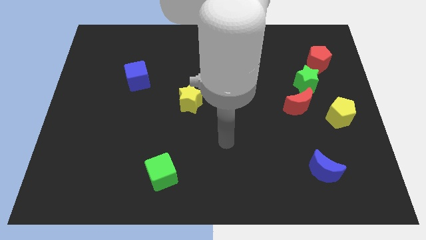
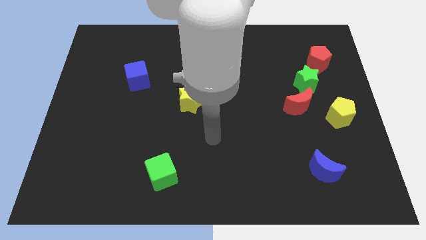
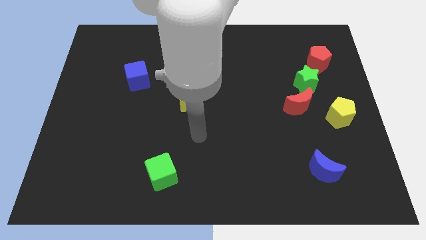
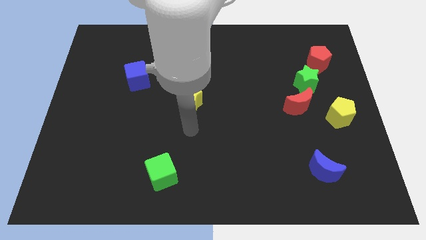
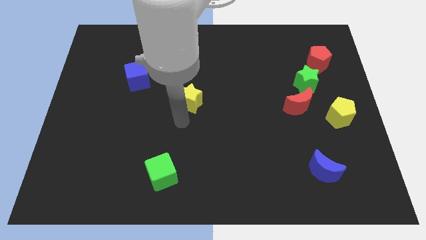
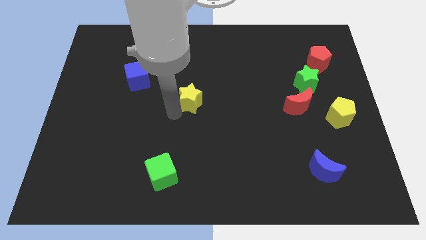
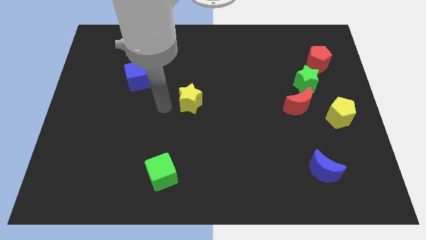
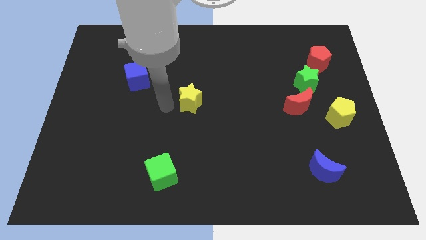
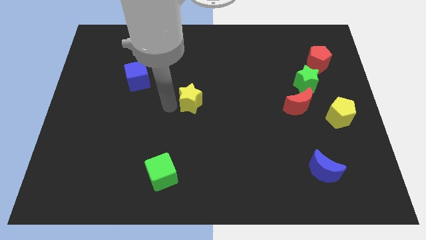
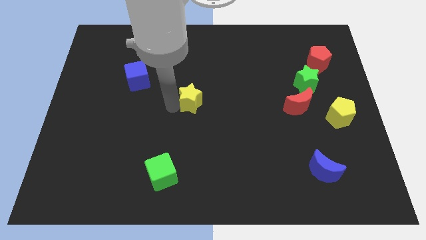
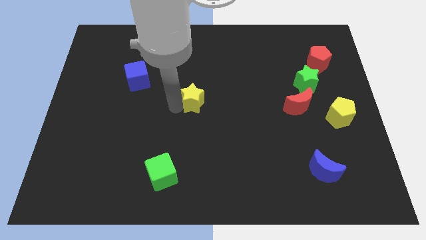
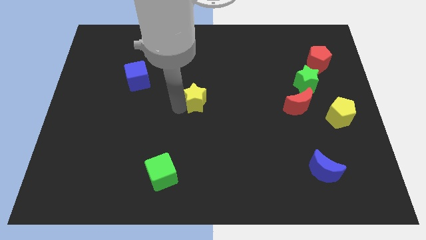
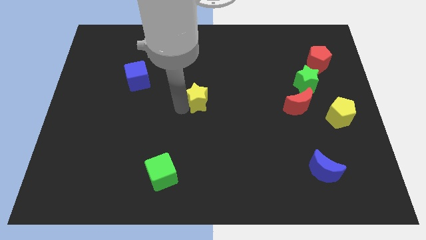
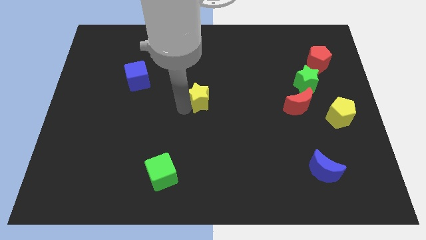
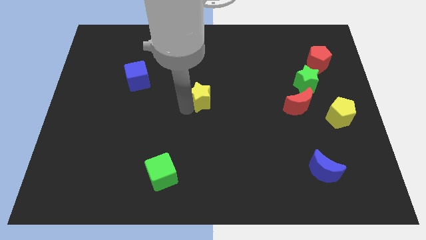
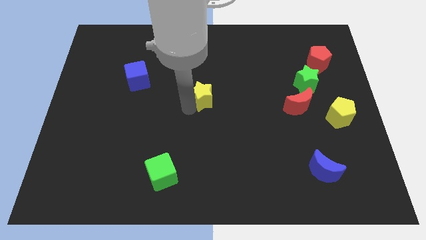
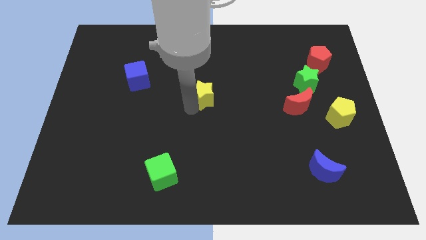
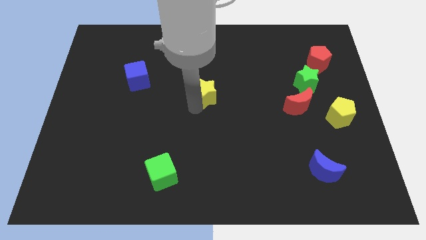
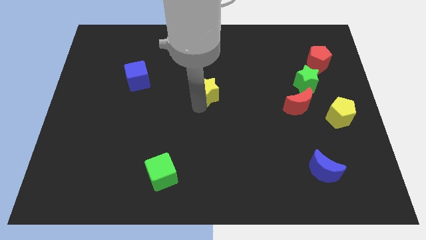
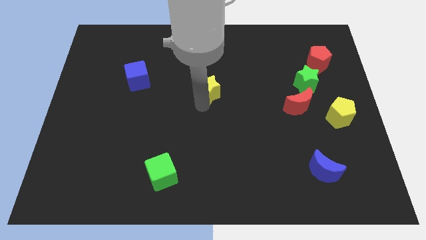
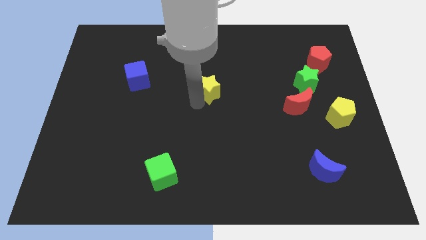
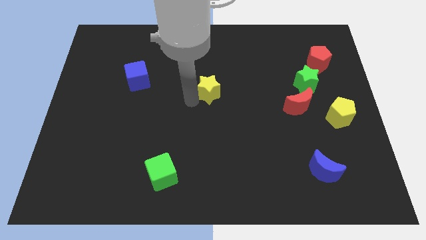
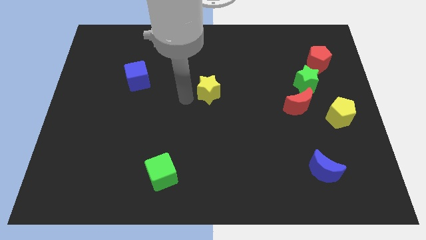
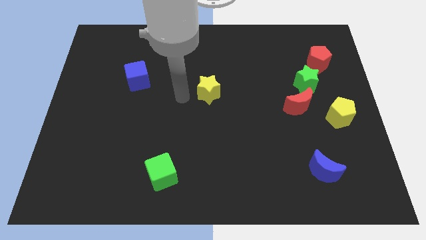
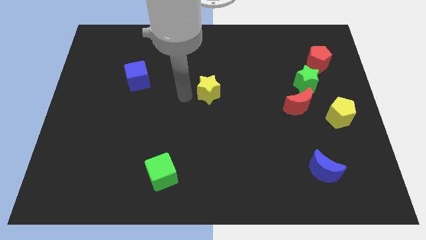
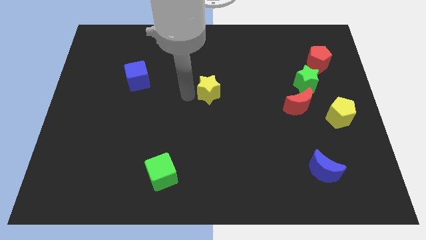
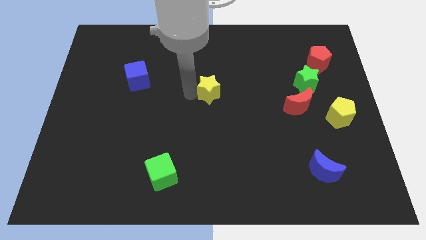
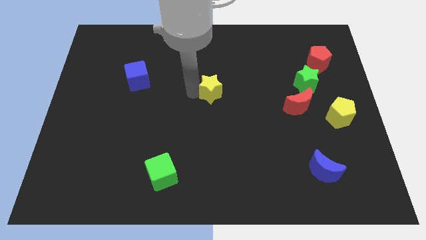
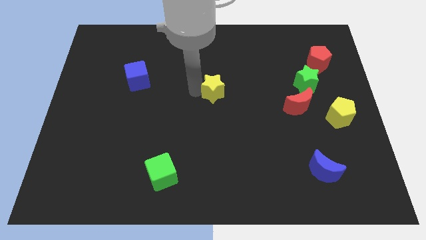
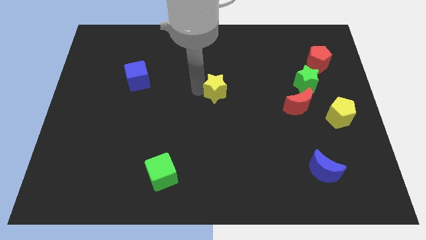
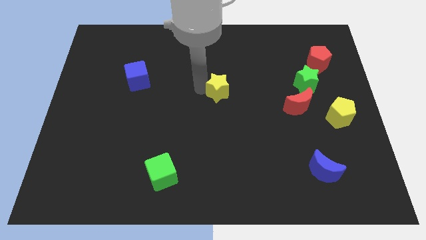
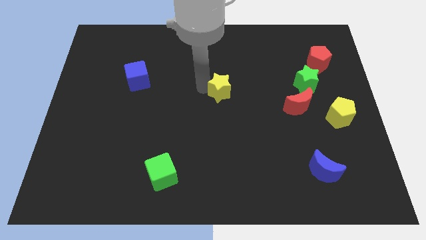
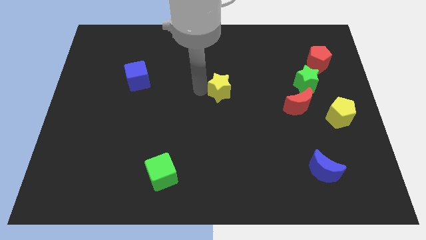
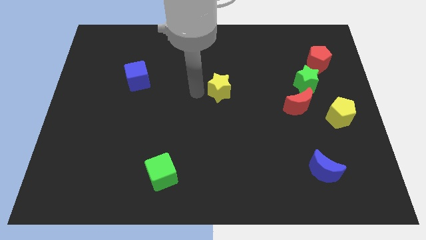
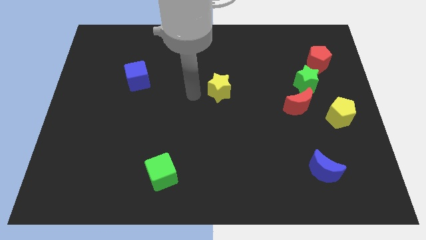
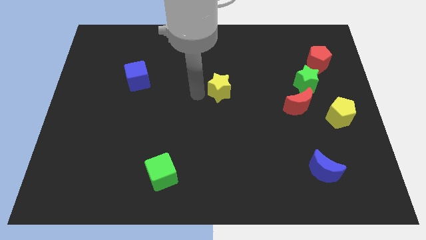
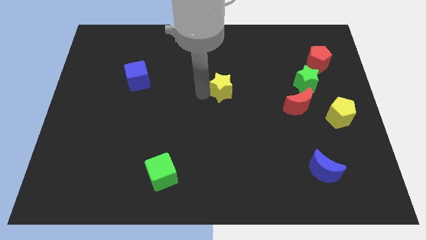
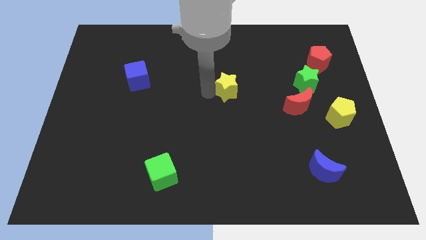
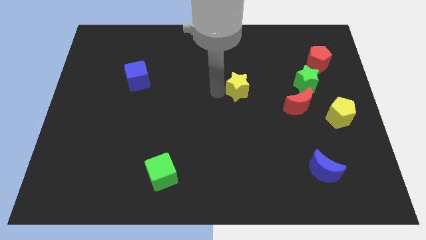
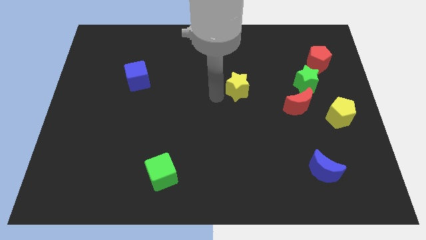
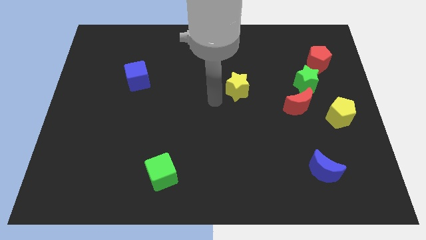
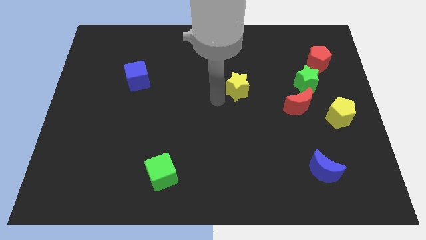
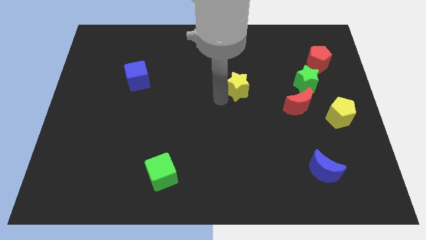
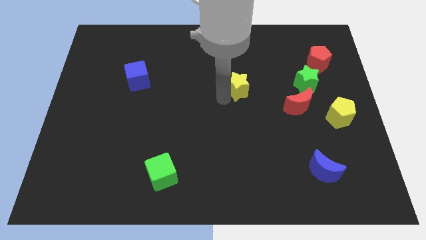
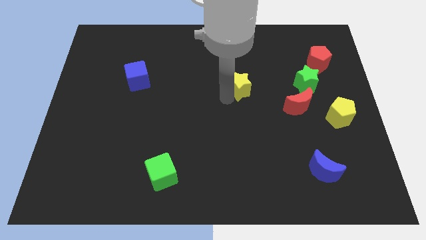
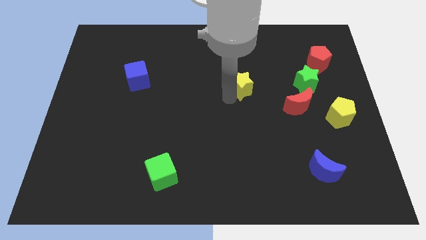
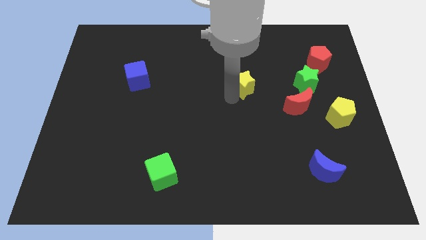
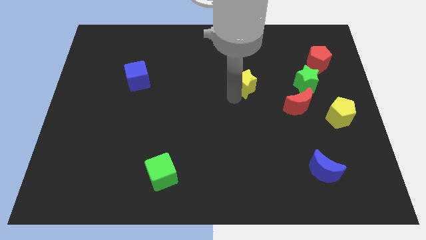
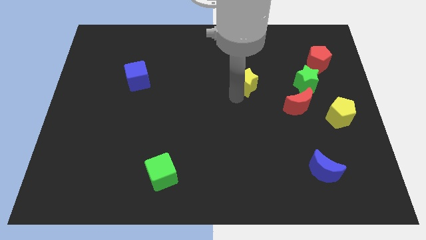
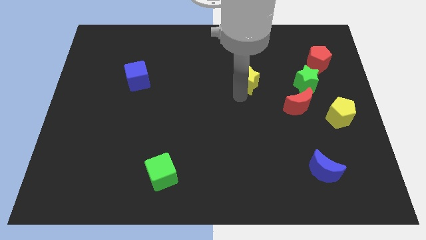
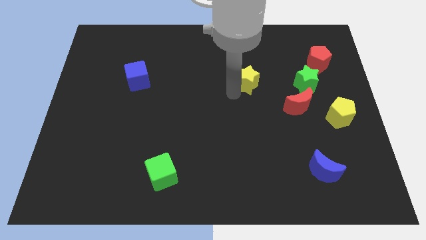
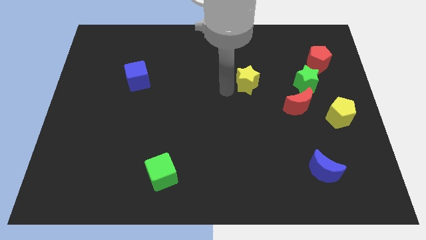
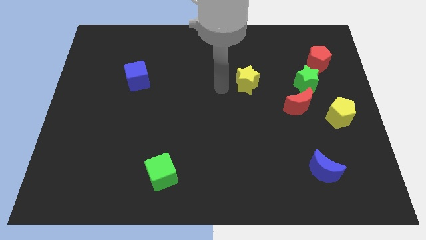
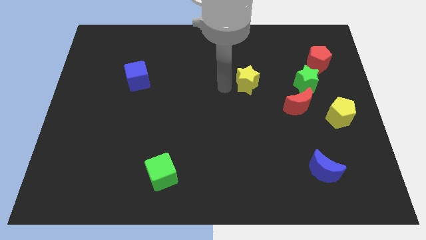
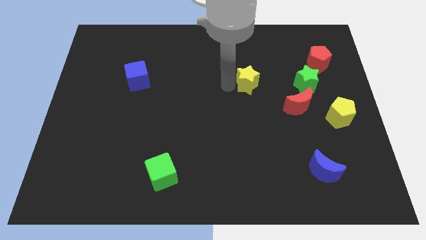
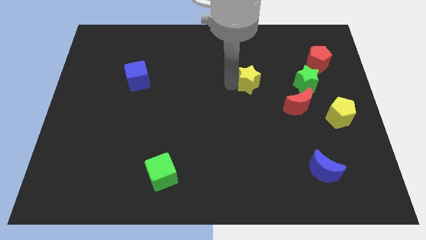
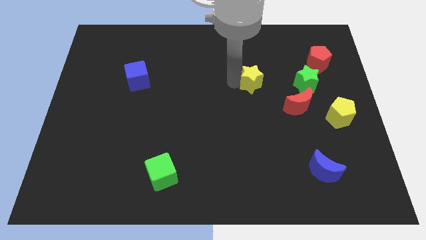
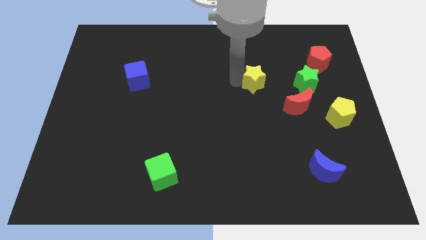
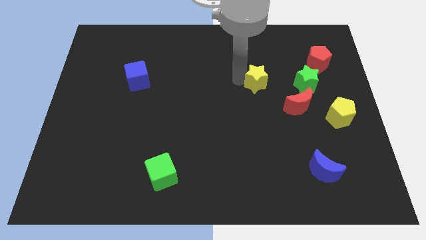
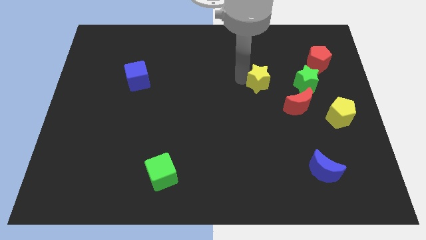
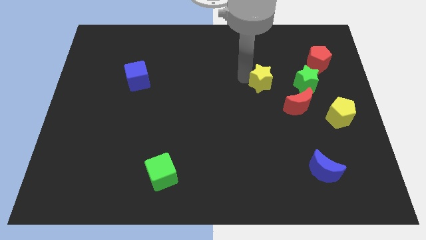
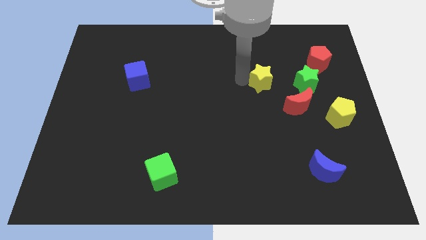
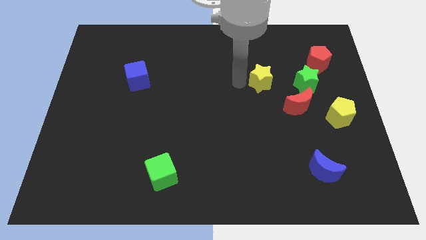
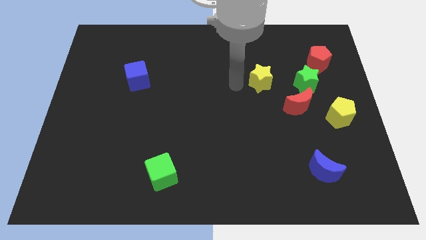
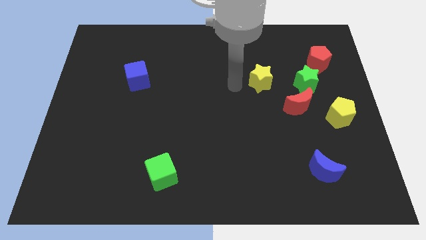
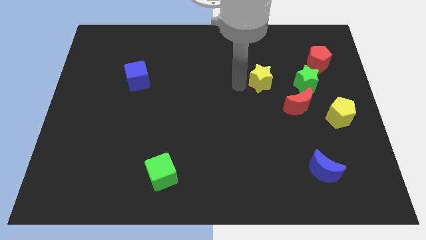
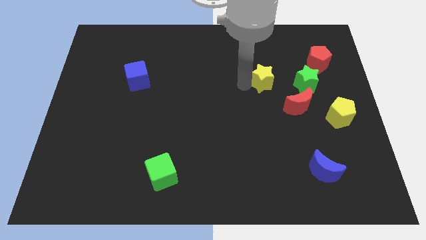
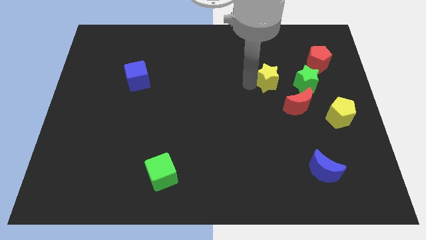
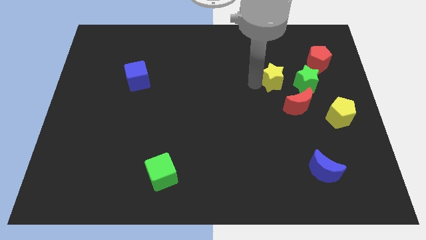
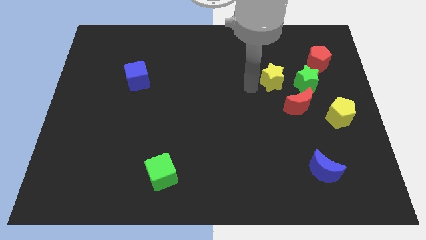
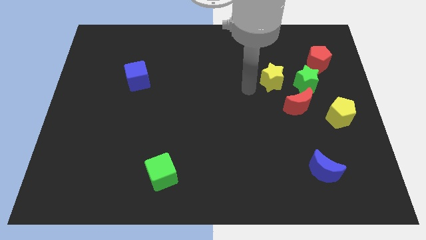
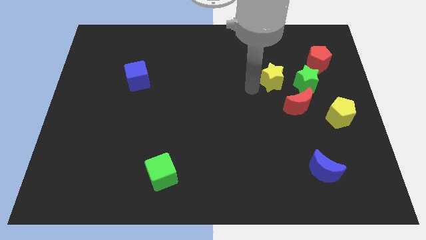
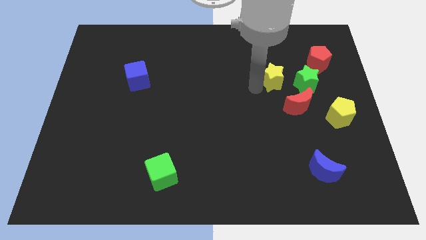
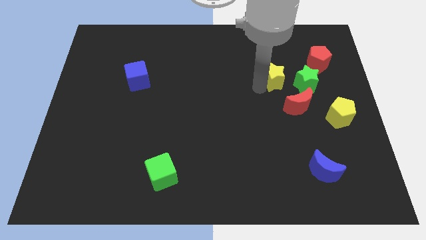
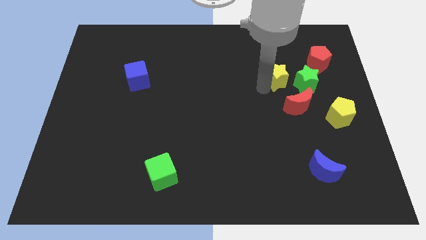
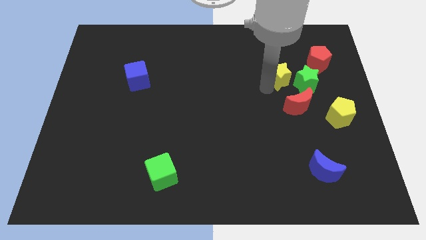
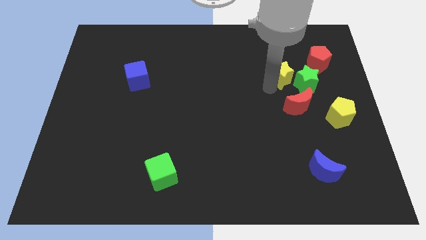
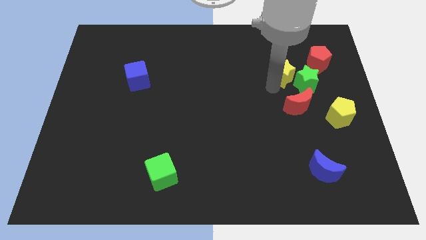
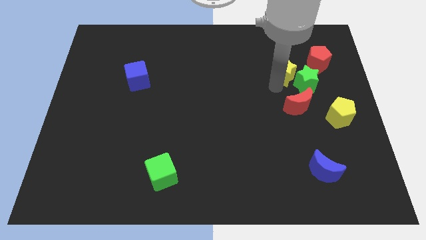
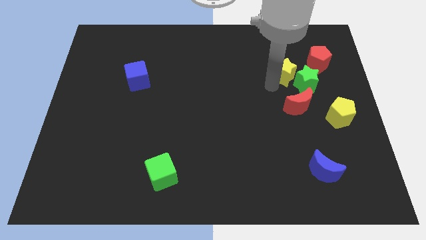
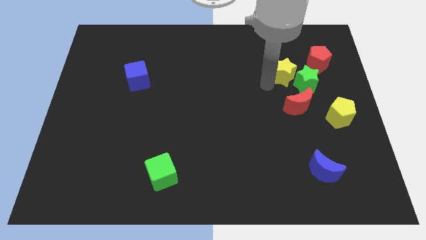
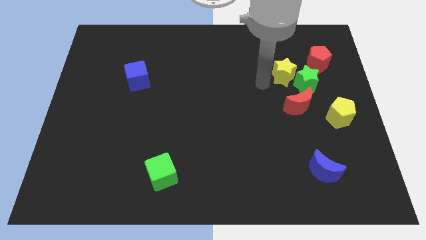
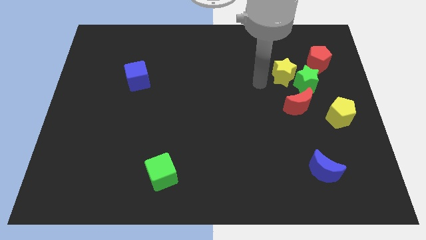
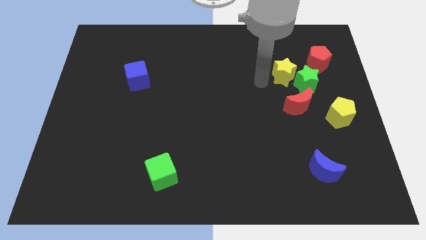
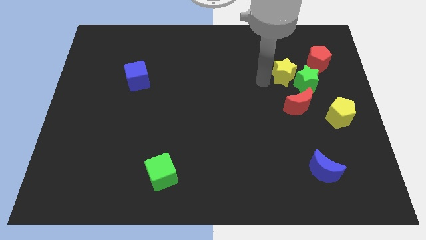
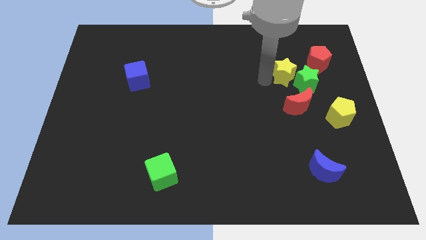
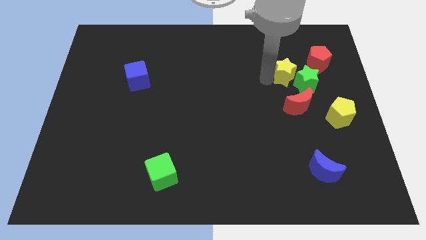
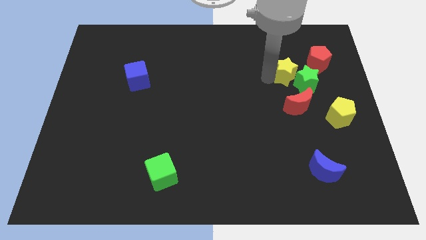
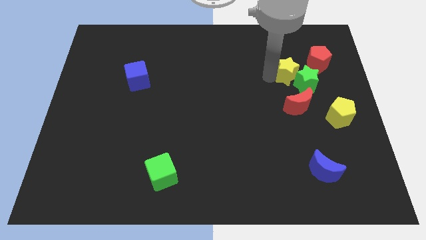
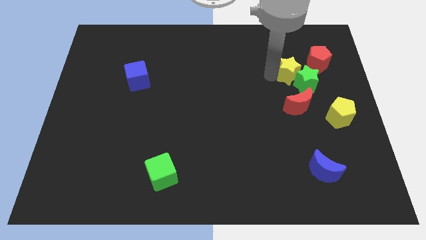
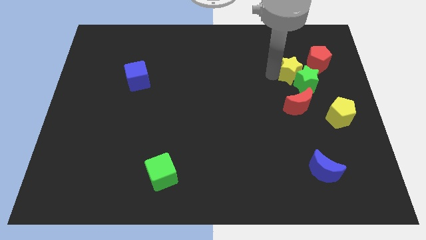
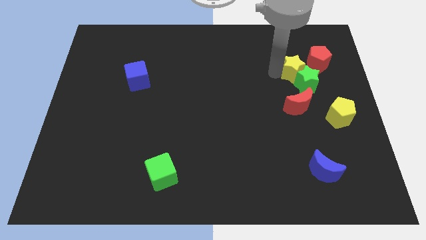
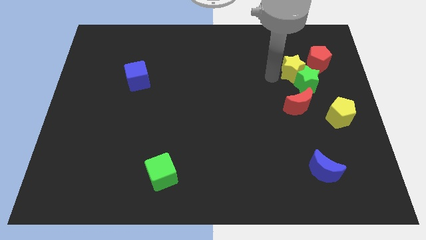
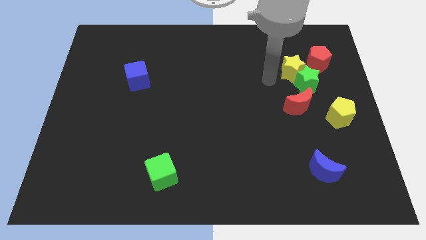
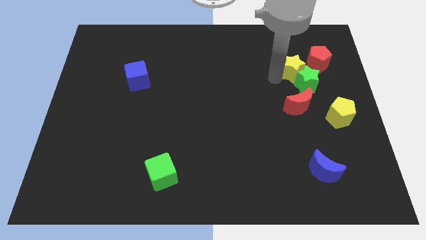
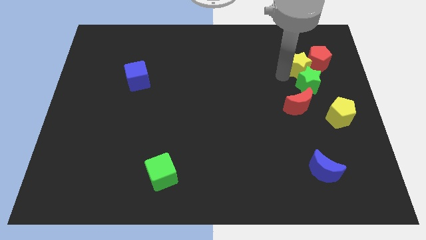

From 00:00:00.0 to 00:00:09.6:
push the yellow star close to the red pentagon
